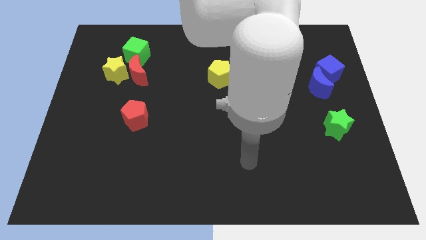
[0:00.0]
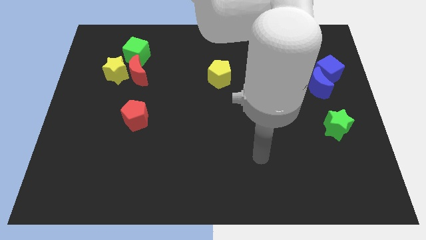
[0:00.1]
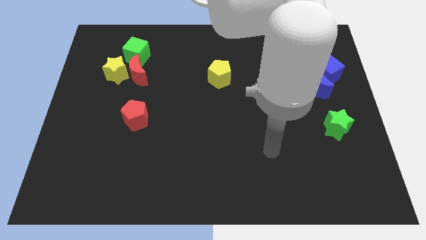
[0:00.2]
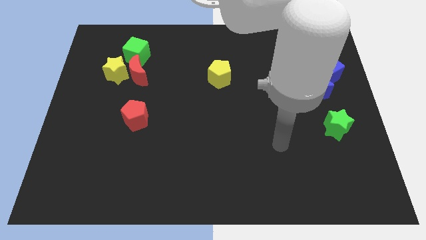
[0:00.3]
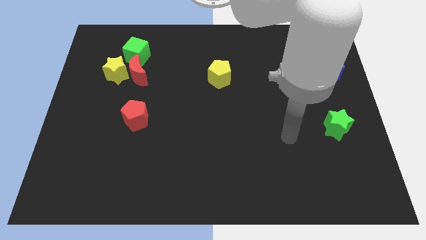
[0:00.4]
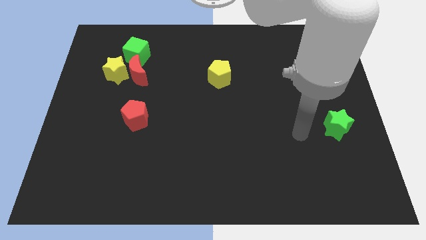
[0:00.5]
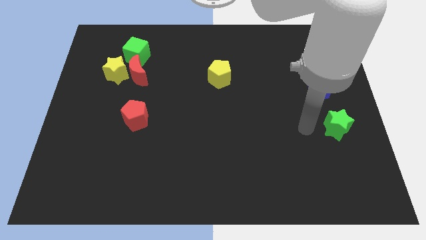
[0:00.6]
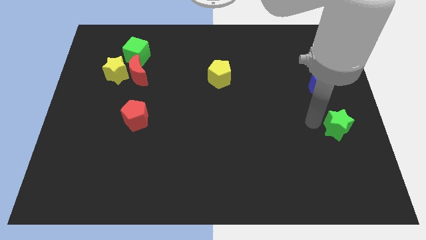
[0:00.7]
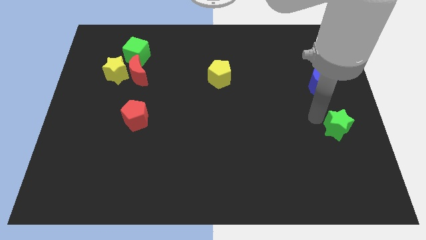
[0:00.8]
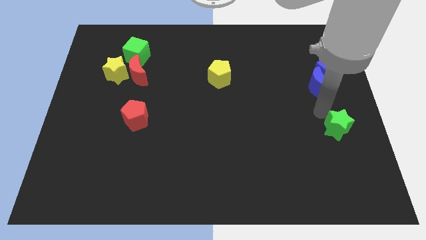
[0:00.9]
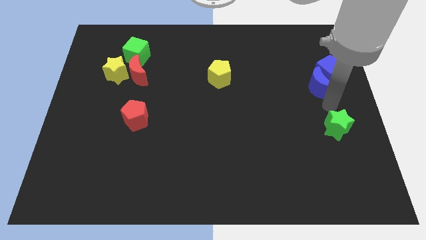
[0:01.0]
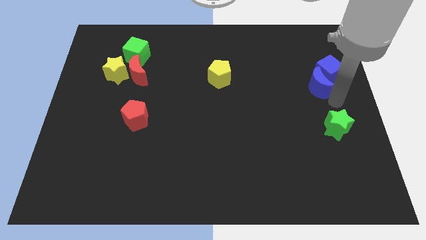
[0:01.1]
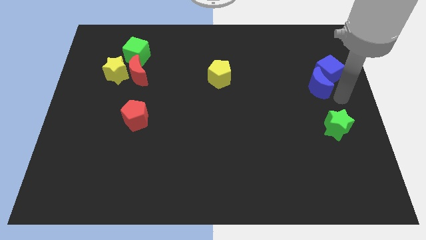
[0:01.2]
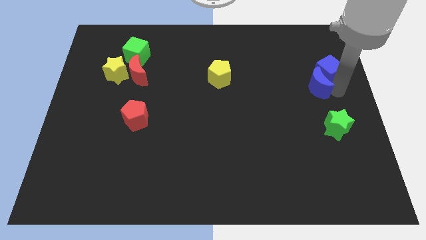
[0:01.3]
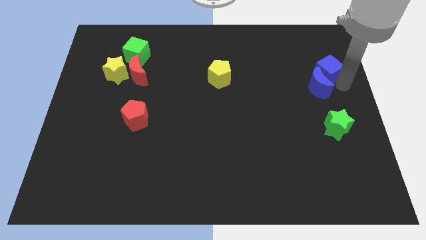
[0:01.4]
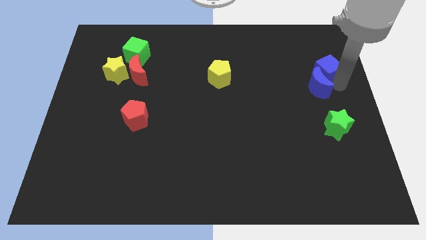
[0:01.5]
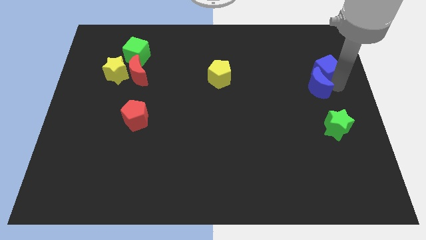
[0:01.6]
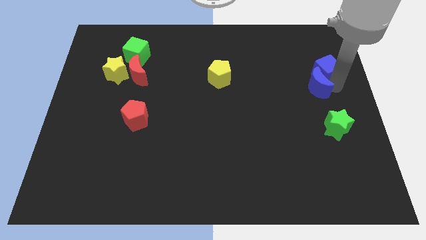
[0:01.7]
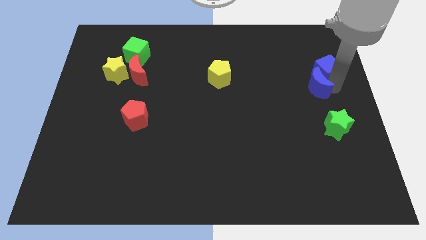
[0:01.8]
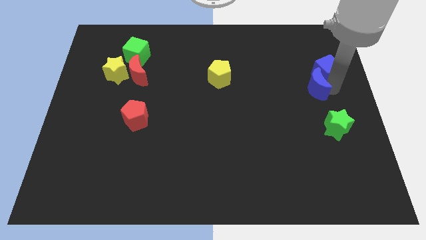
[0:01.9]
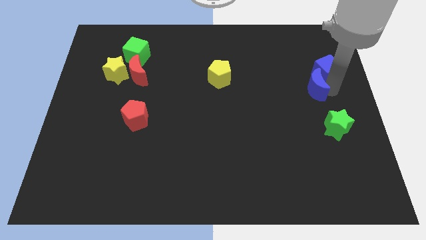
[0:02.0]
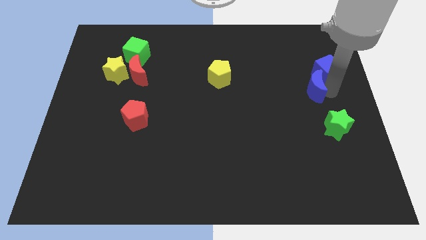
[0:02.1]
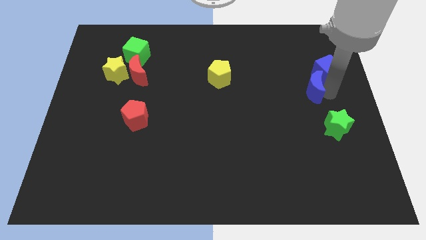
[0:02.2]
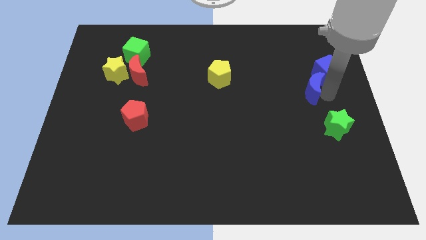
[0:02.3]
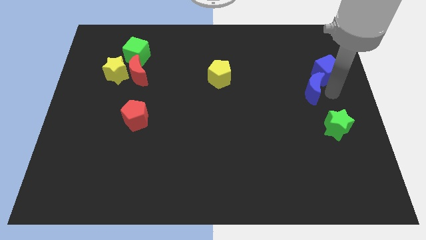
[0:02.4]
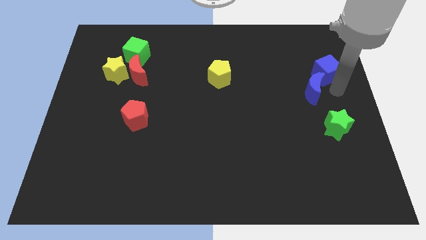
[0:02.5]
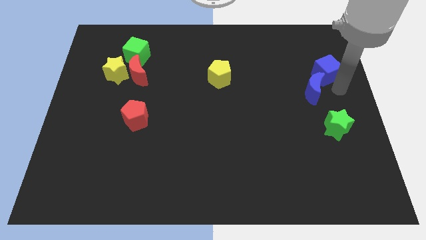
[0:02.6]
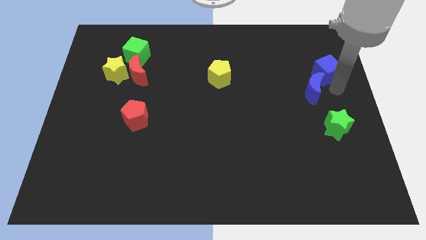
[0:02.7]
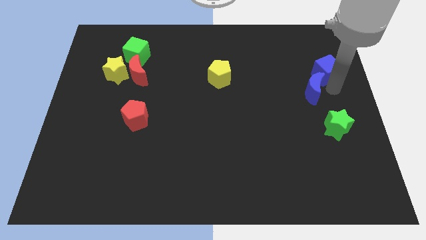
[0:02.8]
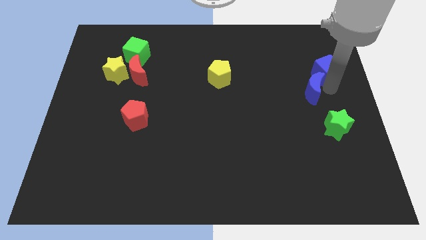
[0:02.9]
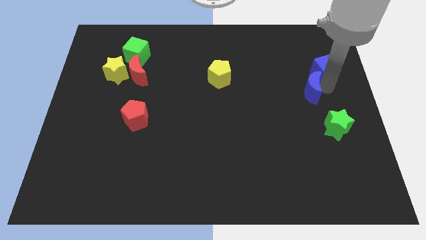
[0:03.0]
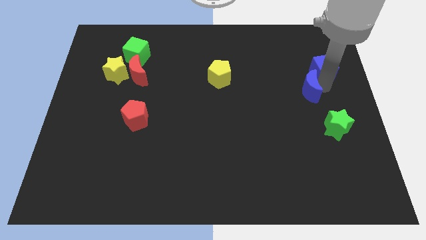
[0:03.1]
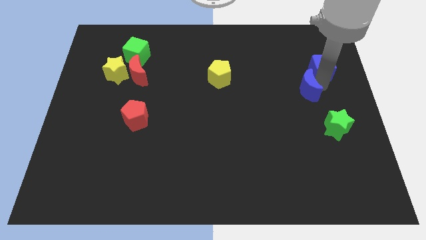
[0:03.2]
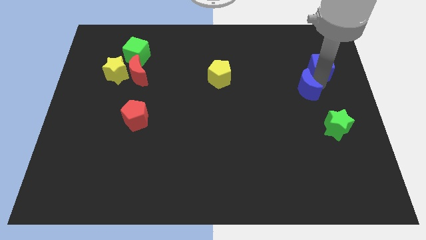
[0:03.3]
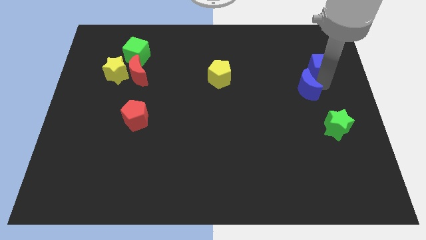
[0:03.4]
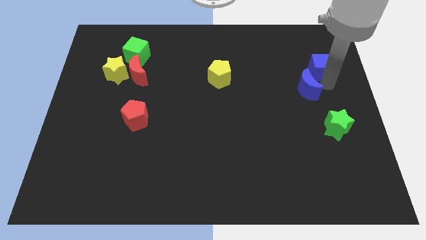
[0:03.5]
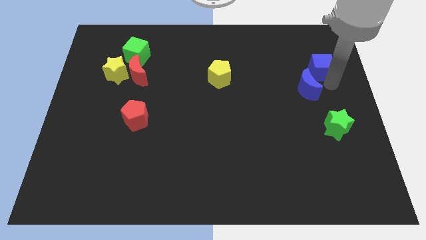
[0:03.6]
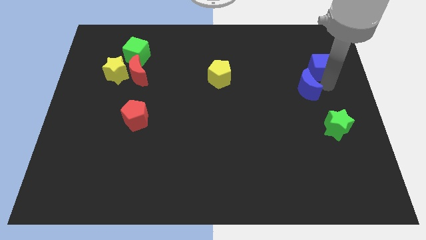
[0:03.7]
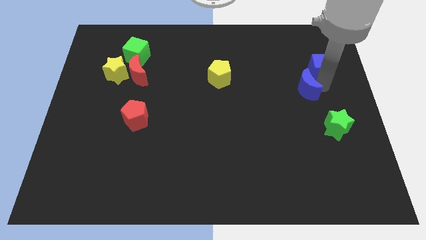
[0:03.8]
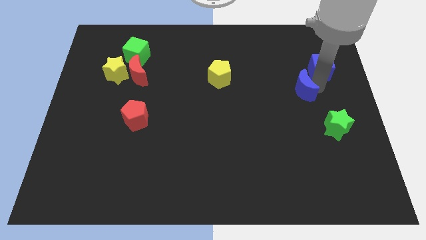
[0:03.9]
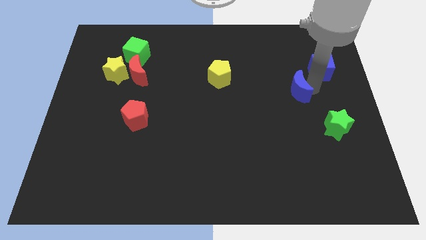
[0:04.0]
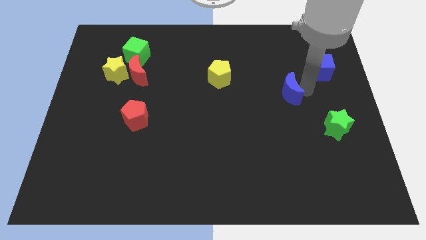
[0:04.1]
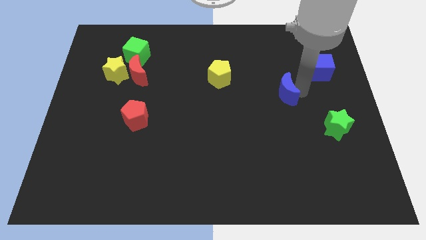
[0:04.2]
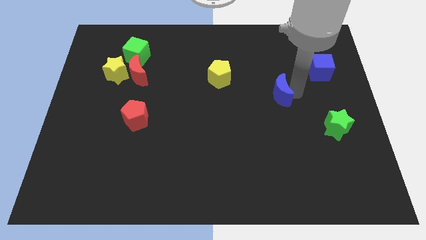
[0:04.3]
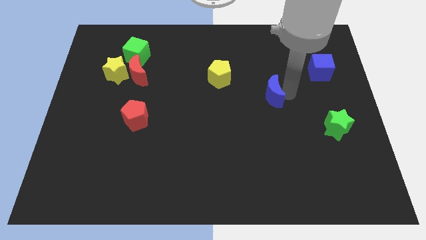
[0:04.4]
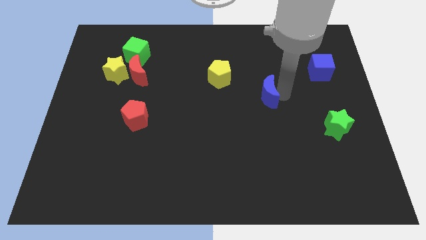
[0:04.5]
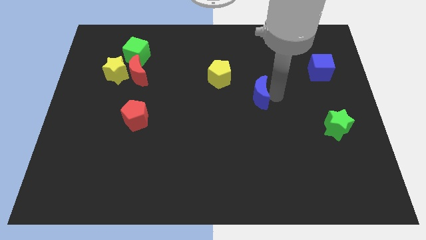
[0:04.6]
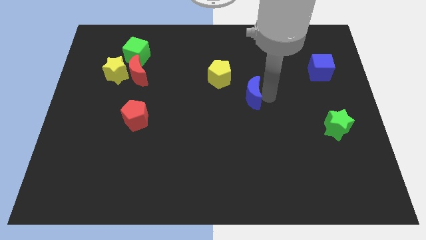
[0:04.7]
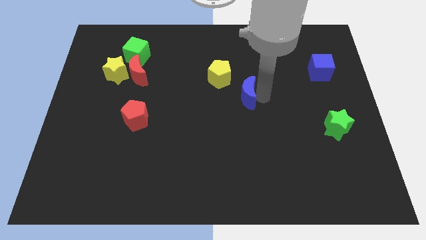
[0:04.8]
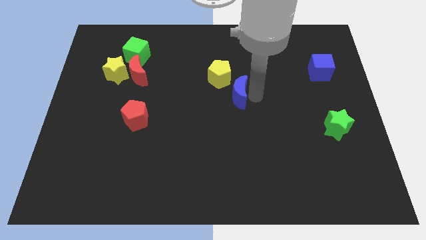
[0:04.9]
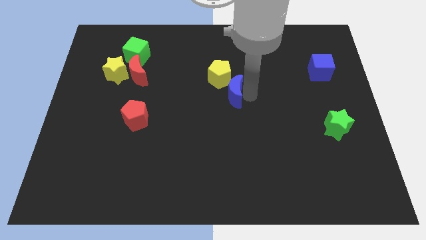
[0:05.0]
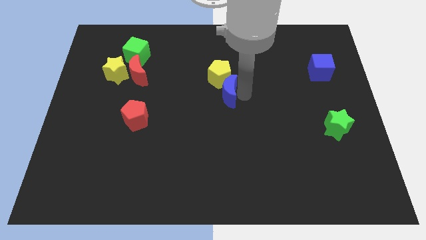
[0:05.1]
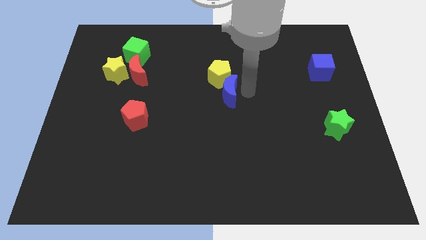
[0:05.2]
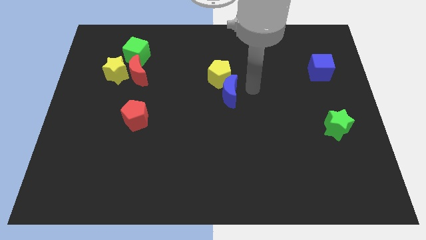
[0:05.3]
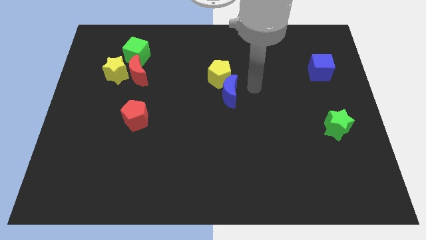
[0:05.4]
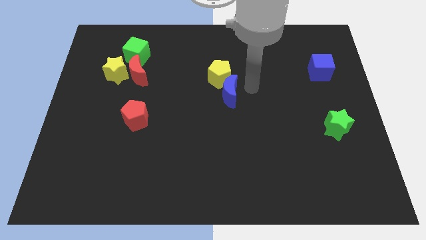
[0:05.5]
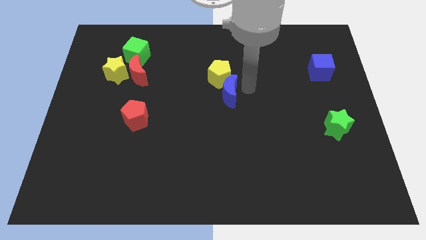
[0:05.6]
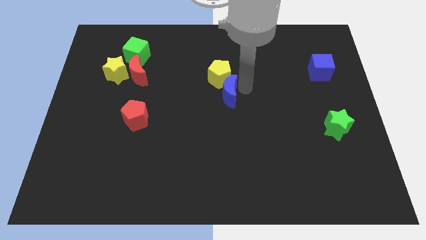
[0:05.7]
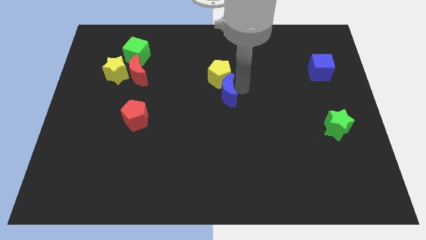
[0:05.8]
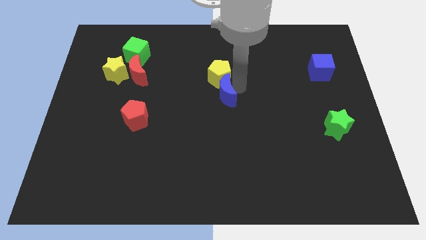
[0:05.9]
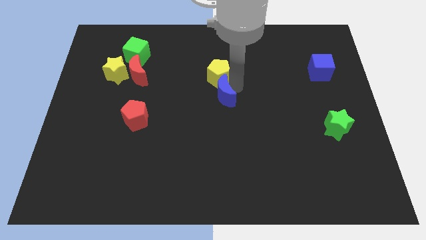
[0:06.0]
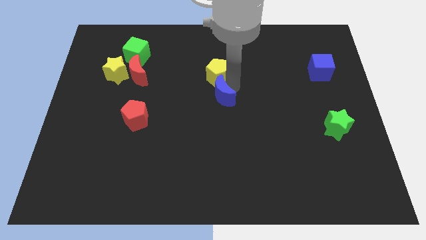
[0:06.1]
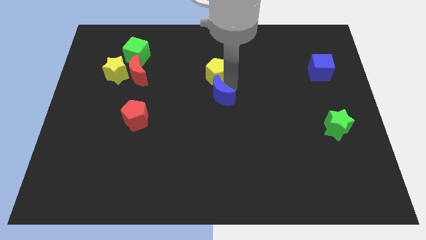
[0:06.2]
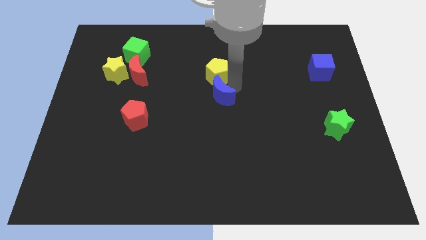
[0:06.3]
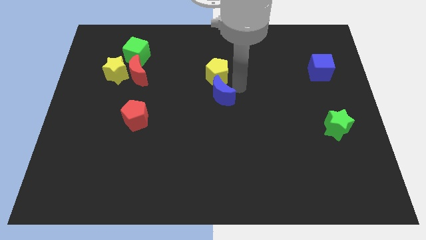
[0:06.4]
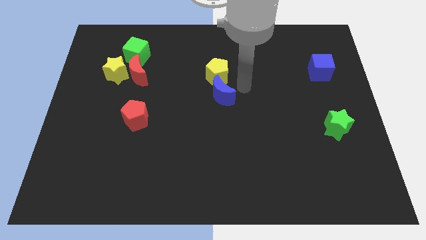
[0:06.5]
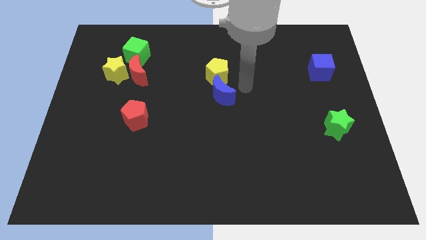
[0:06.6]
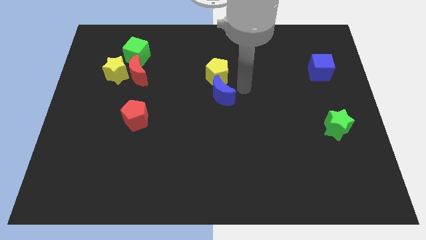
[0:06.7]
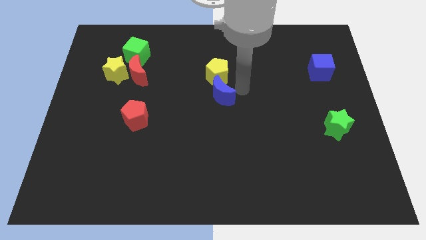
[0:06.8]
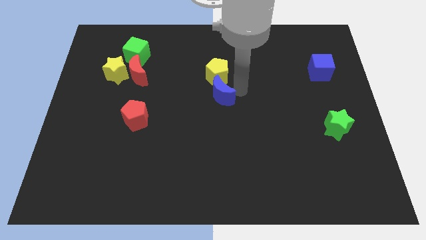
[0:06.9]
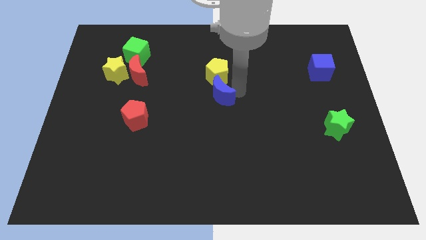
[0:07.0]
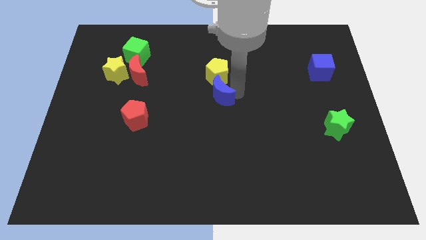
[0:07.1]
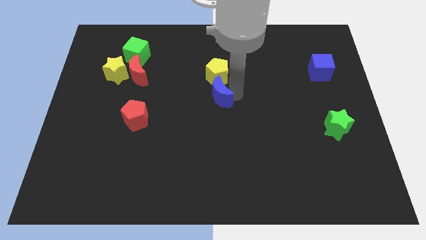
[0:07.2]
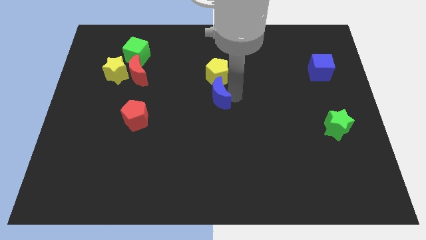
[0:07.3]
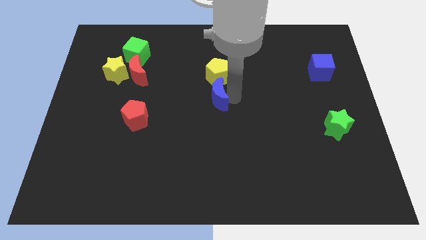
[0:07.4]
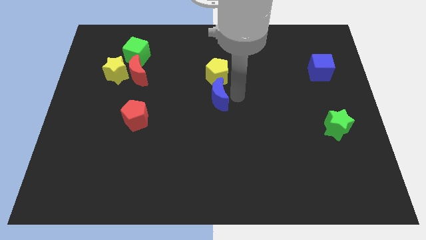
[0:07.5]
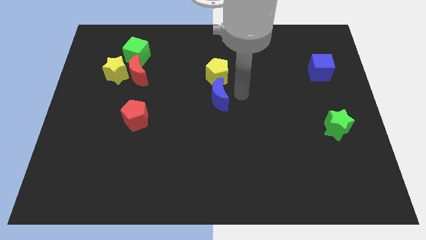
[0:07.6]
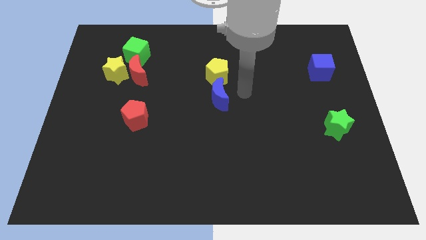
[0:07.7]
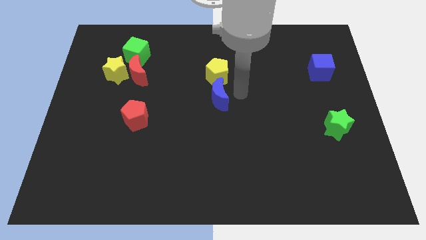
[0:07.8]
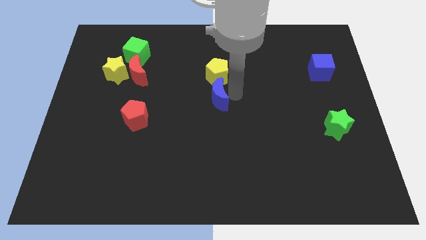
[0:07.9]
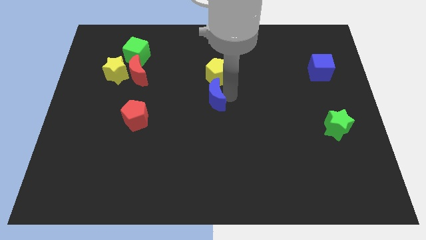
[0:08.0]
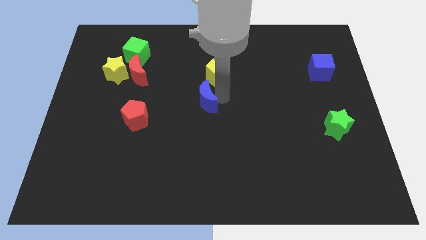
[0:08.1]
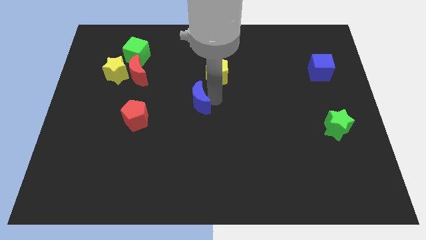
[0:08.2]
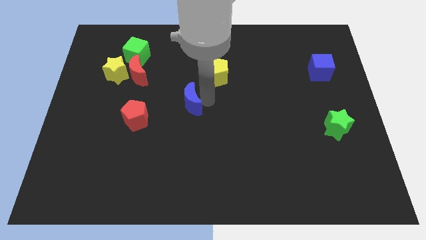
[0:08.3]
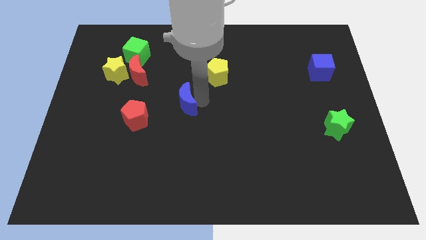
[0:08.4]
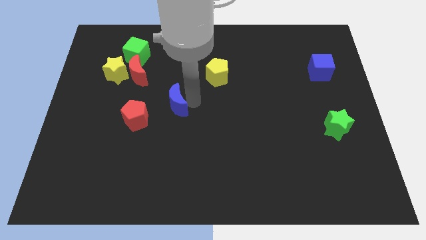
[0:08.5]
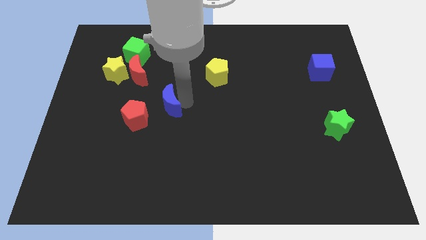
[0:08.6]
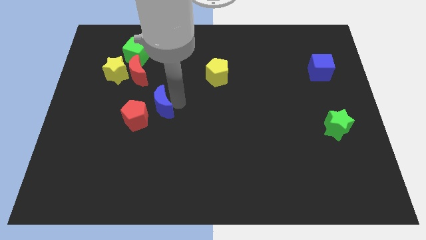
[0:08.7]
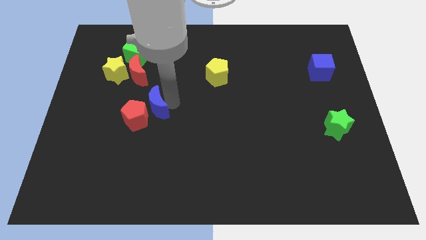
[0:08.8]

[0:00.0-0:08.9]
put the blue moon towards the red pentagon
